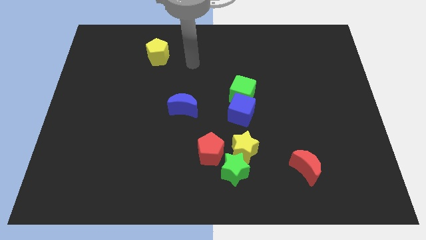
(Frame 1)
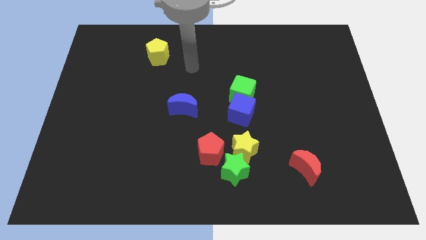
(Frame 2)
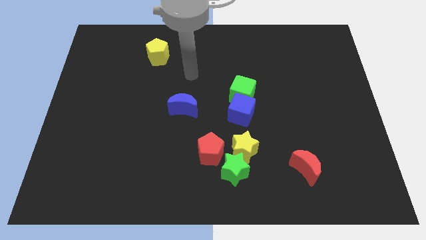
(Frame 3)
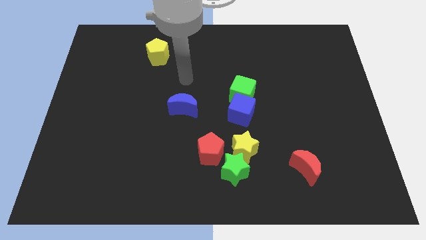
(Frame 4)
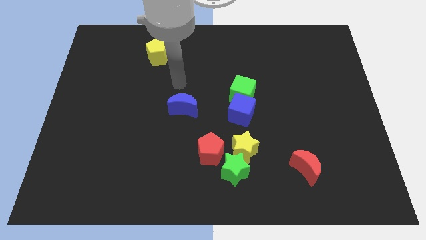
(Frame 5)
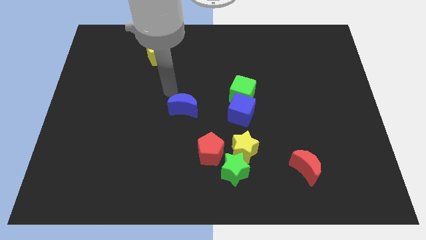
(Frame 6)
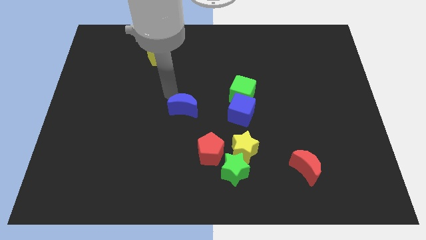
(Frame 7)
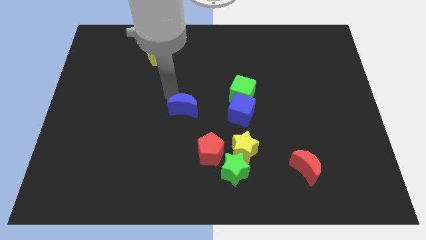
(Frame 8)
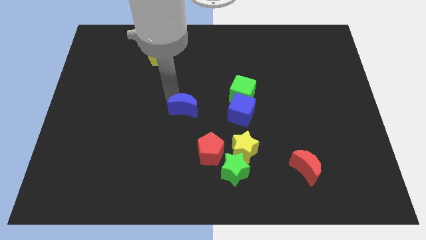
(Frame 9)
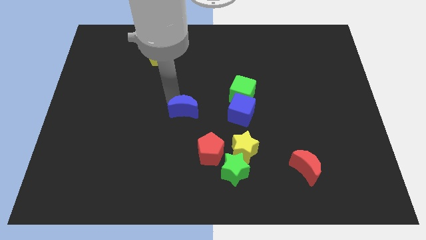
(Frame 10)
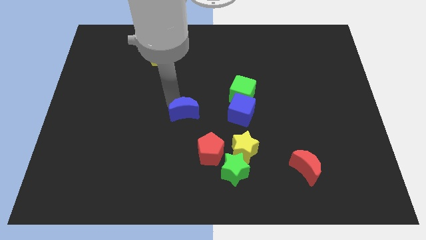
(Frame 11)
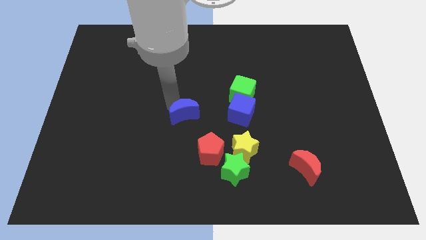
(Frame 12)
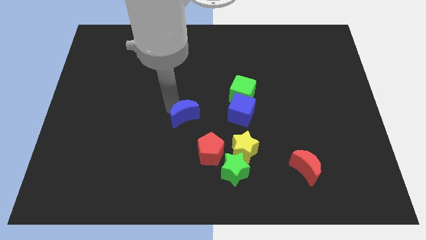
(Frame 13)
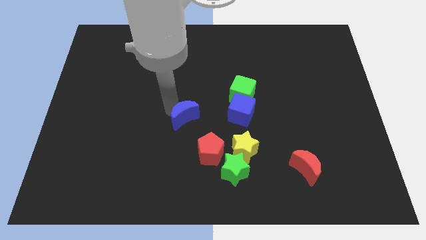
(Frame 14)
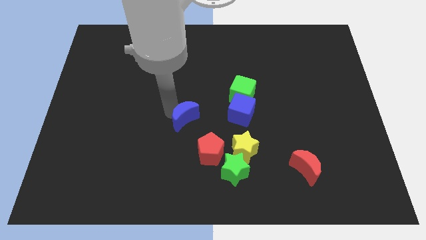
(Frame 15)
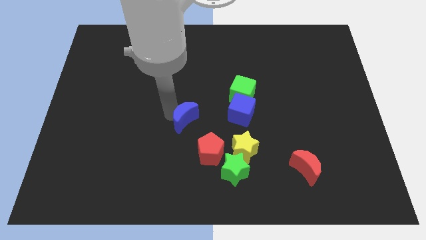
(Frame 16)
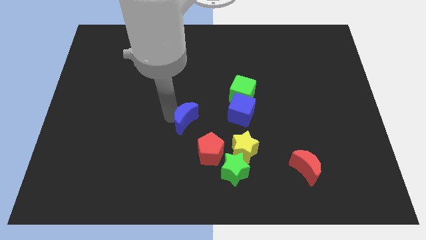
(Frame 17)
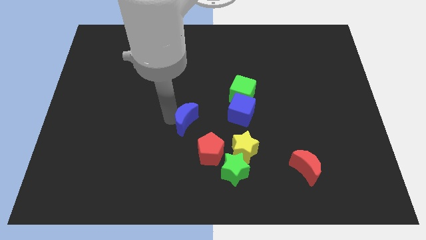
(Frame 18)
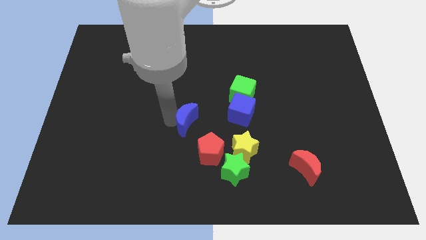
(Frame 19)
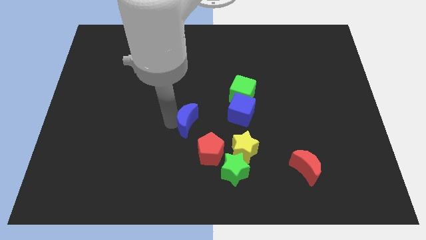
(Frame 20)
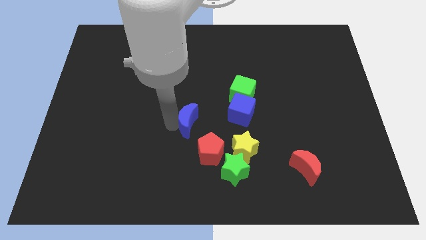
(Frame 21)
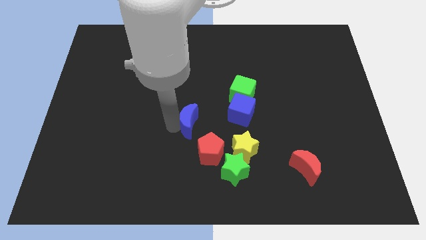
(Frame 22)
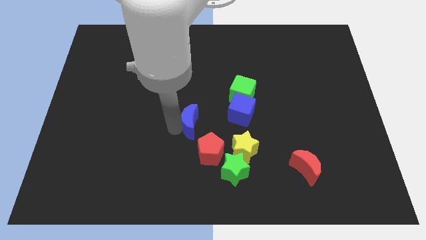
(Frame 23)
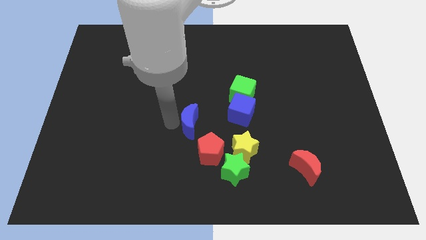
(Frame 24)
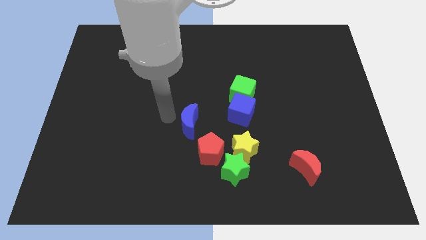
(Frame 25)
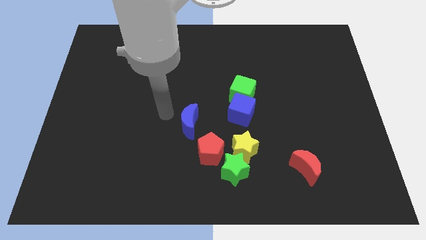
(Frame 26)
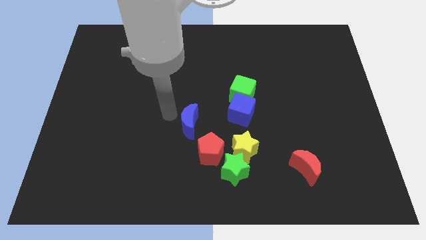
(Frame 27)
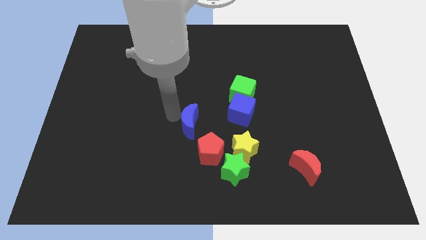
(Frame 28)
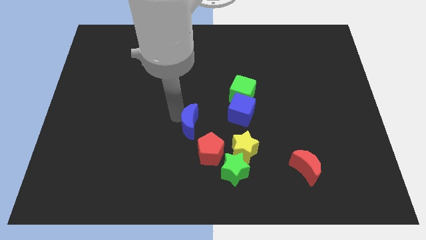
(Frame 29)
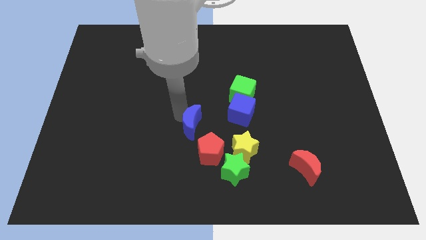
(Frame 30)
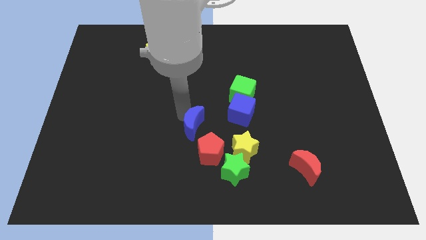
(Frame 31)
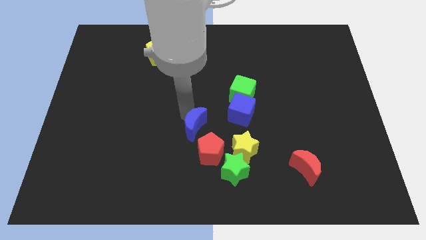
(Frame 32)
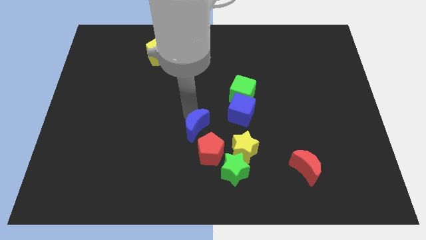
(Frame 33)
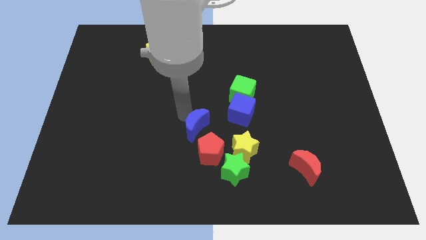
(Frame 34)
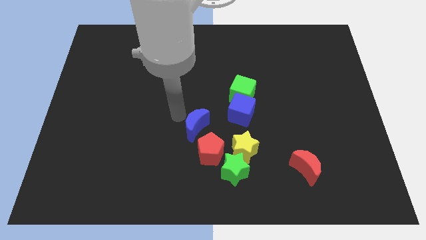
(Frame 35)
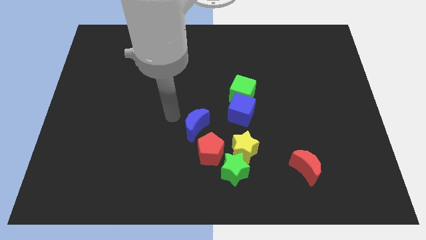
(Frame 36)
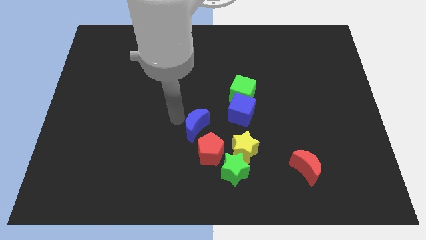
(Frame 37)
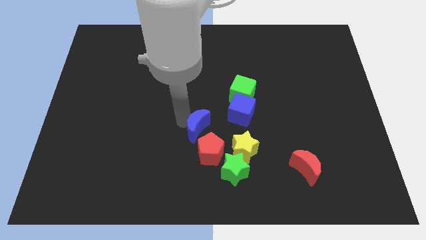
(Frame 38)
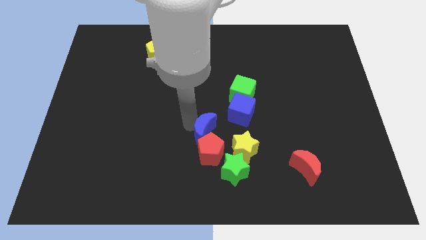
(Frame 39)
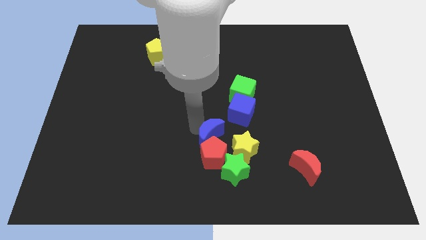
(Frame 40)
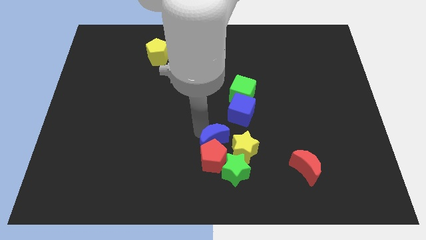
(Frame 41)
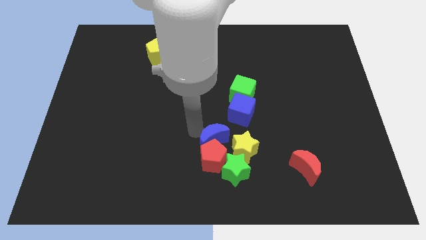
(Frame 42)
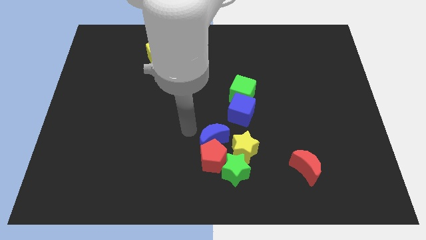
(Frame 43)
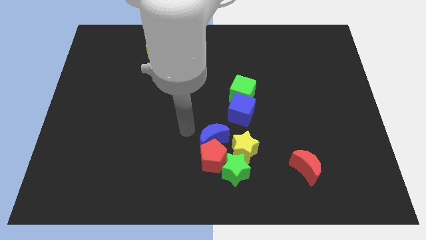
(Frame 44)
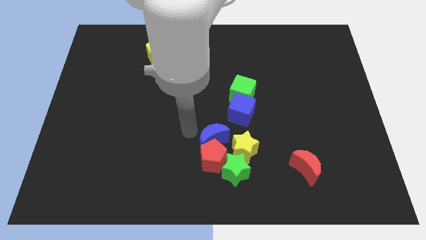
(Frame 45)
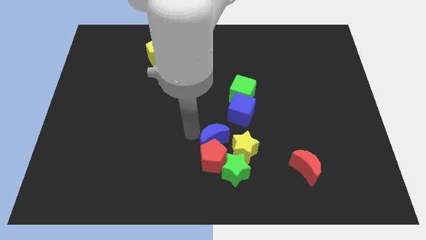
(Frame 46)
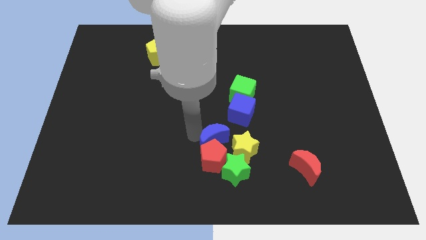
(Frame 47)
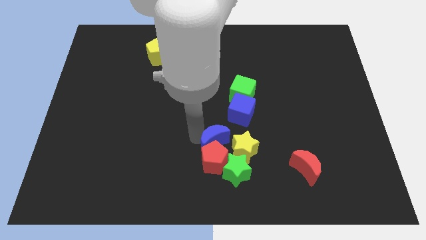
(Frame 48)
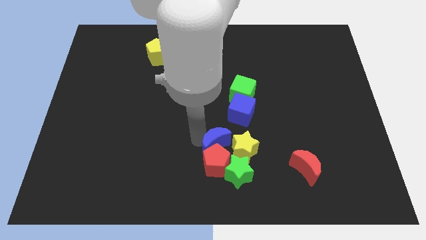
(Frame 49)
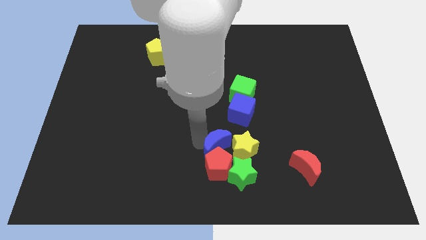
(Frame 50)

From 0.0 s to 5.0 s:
move the blue moon close to the yellow star

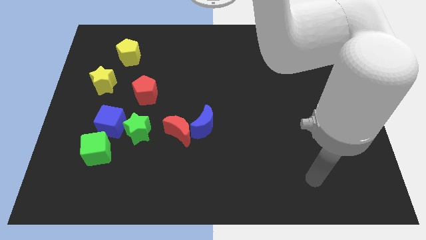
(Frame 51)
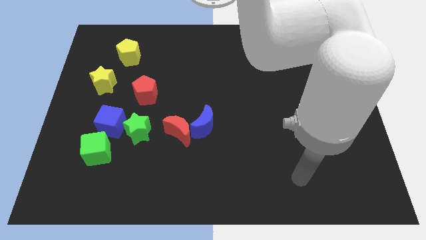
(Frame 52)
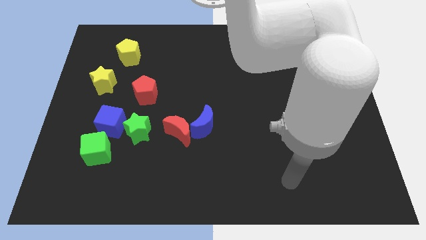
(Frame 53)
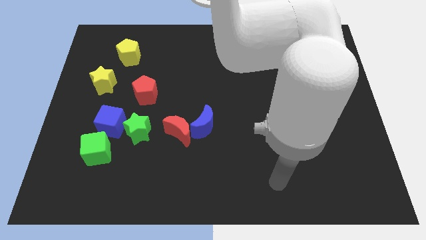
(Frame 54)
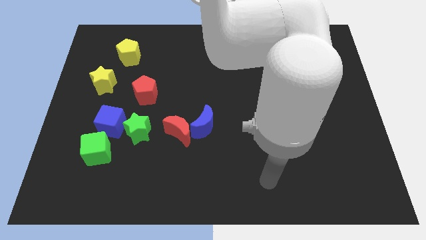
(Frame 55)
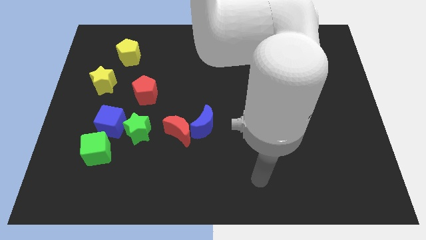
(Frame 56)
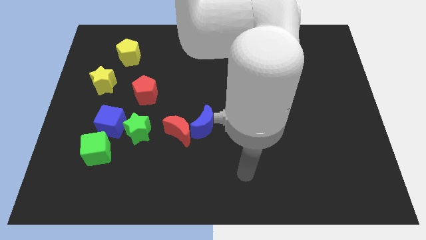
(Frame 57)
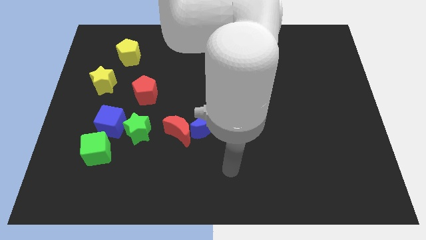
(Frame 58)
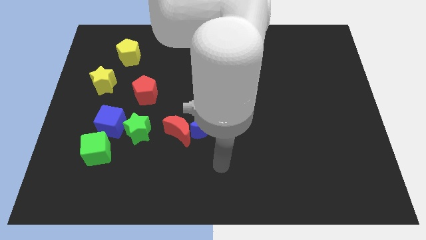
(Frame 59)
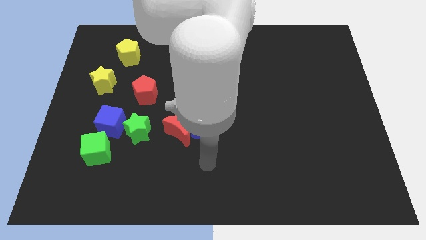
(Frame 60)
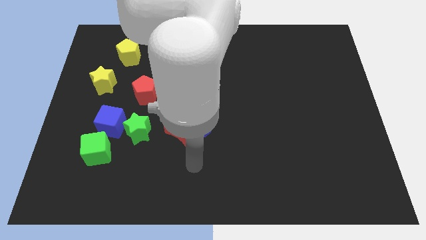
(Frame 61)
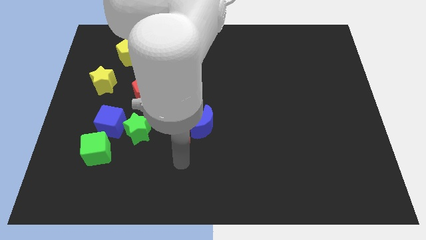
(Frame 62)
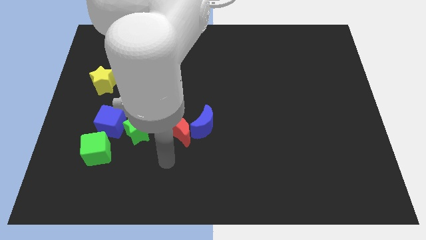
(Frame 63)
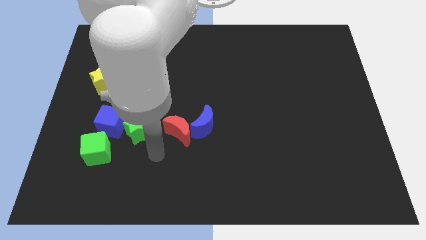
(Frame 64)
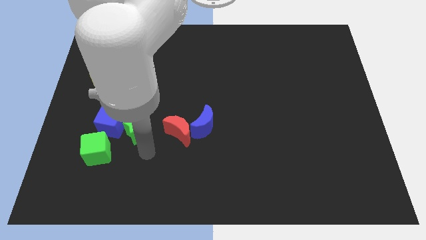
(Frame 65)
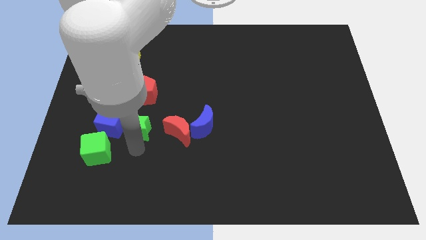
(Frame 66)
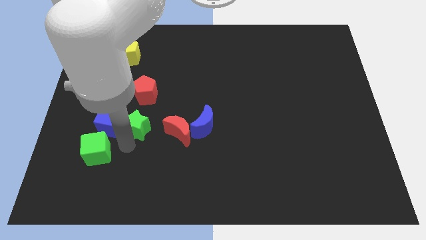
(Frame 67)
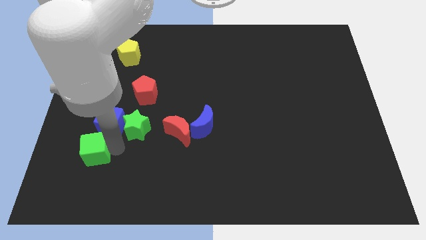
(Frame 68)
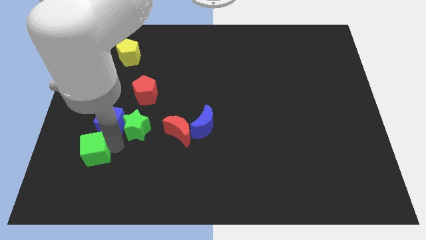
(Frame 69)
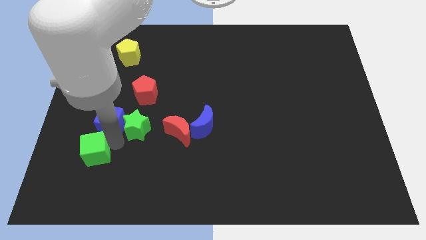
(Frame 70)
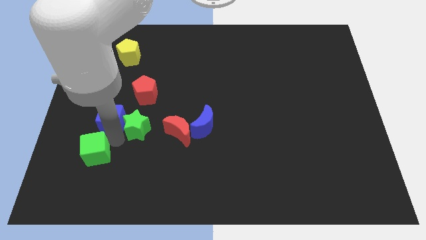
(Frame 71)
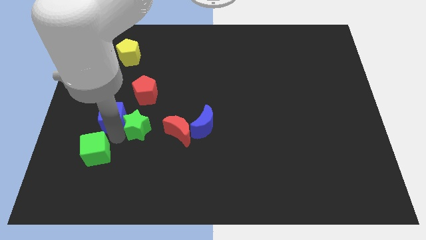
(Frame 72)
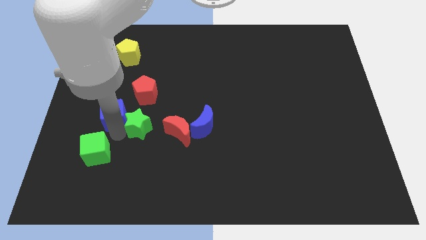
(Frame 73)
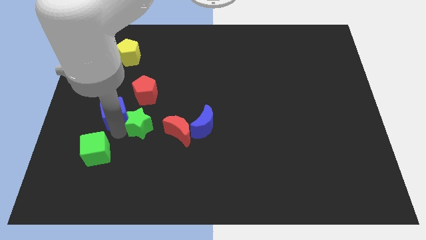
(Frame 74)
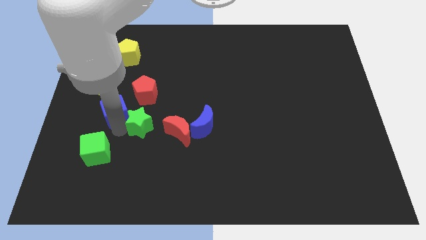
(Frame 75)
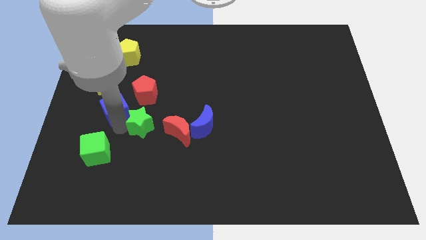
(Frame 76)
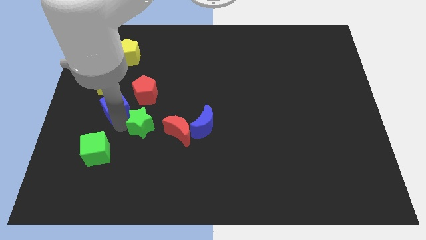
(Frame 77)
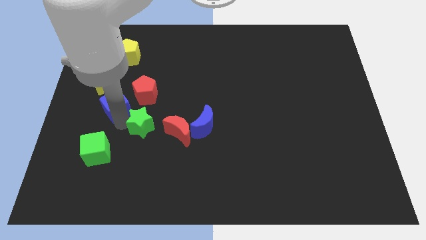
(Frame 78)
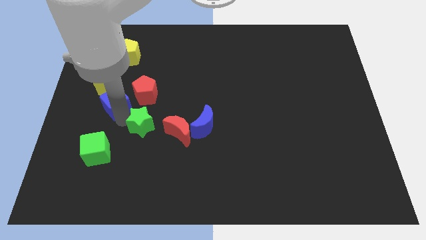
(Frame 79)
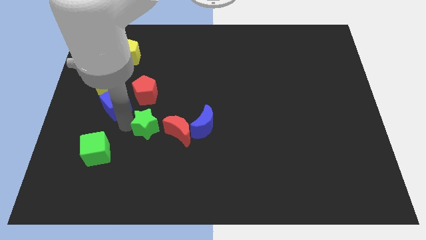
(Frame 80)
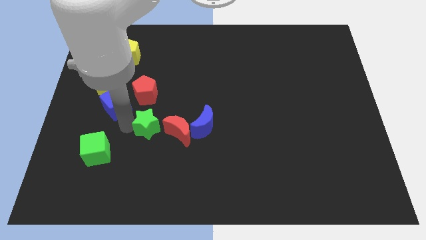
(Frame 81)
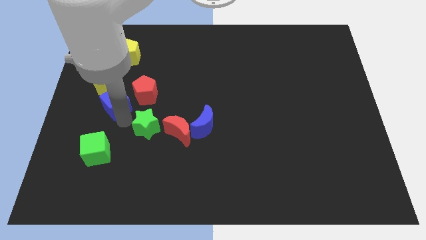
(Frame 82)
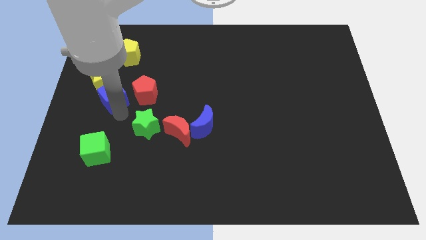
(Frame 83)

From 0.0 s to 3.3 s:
push the blue cube towards the yellow star
